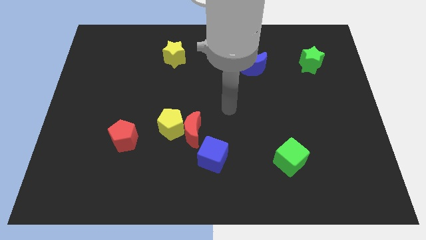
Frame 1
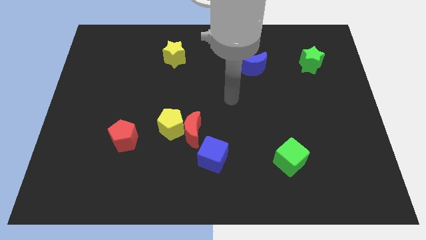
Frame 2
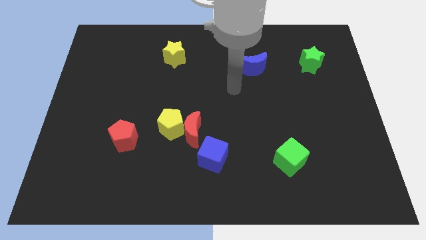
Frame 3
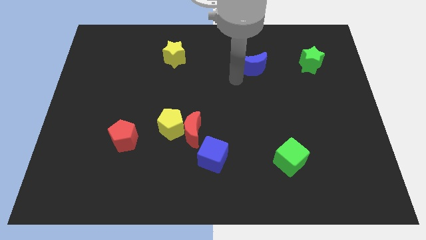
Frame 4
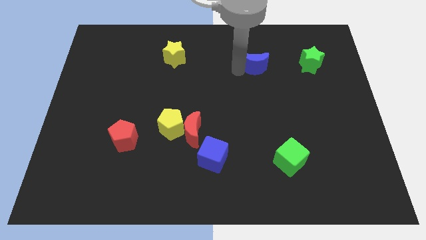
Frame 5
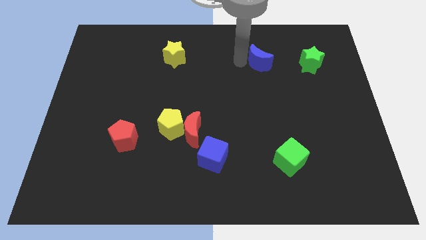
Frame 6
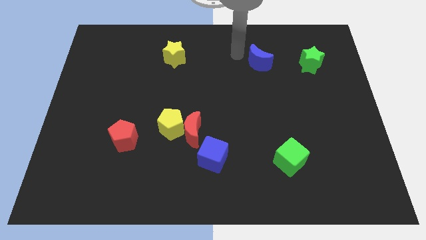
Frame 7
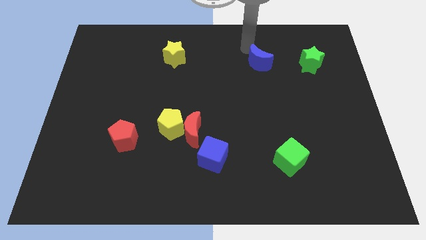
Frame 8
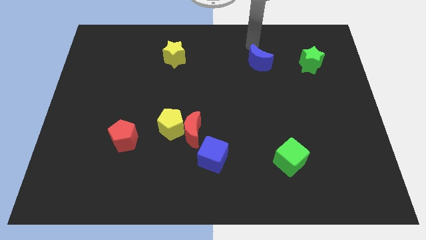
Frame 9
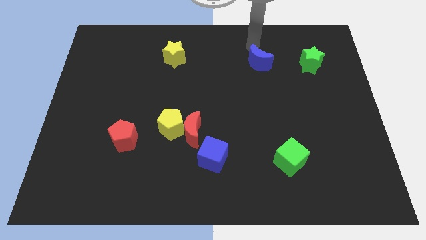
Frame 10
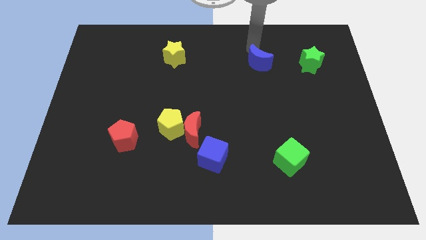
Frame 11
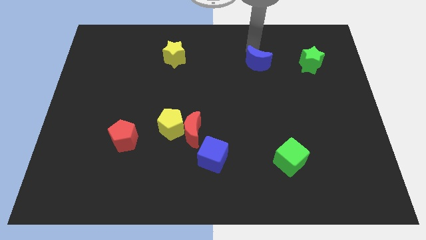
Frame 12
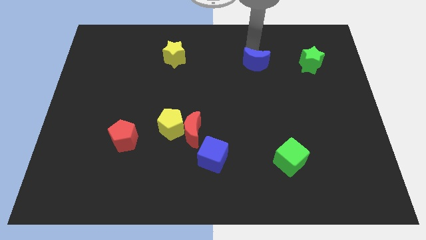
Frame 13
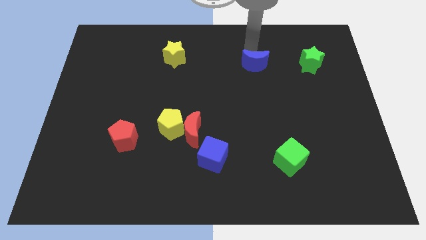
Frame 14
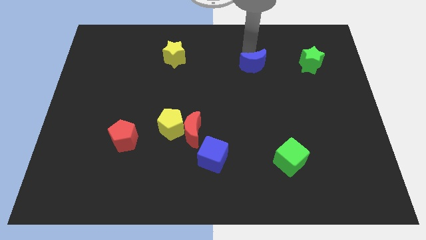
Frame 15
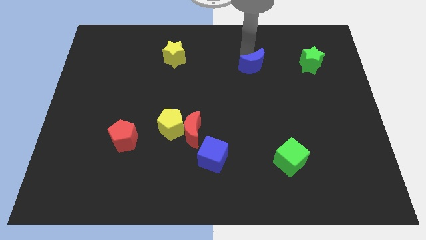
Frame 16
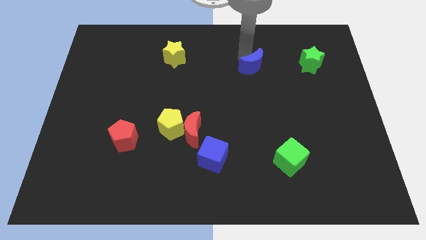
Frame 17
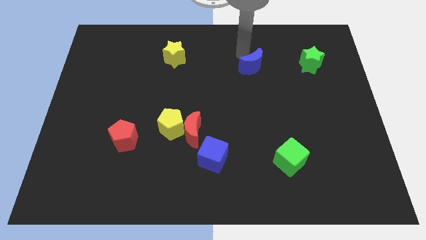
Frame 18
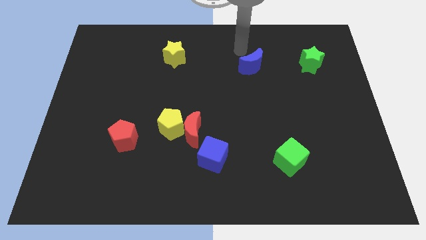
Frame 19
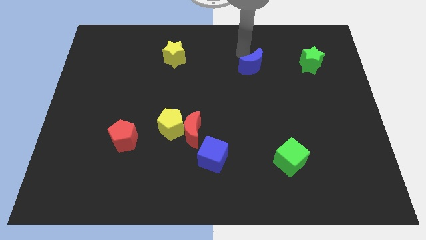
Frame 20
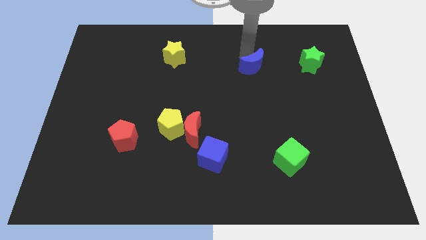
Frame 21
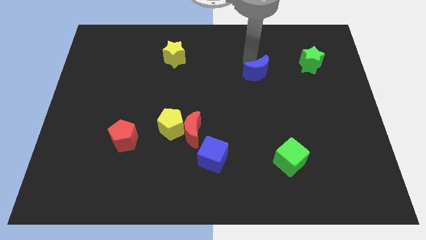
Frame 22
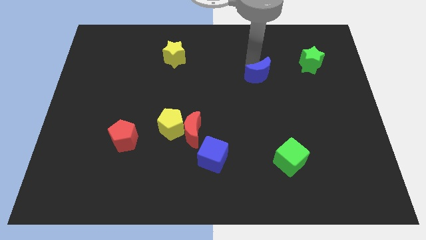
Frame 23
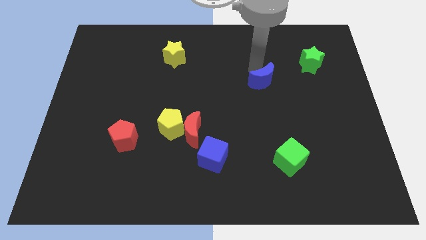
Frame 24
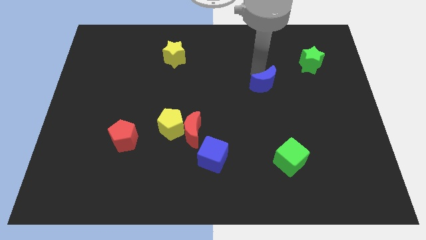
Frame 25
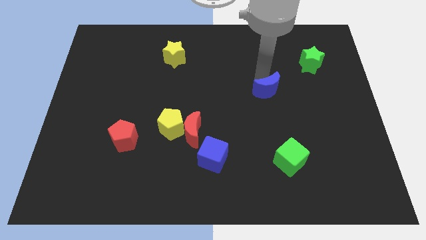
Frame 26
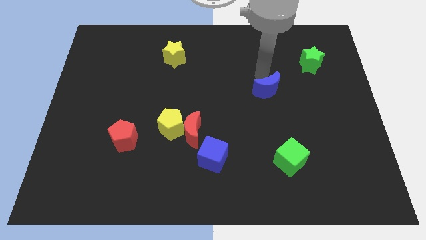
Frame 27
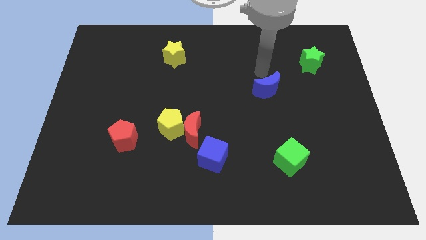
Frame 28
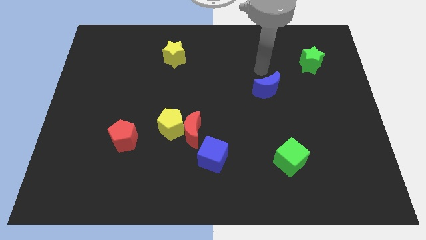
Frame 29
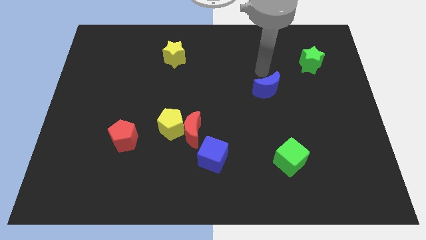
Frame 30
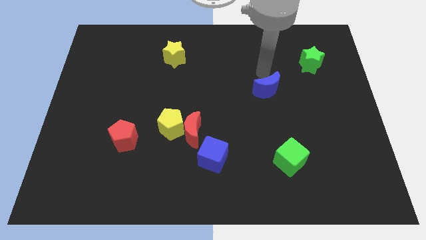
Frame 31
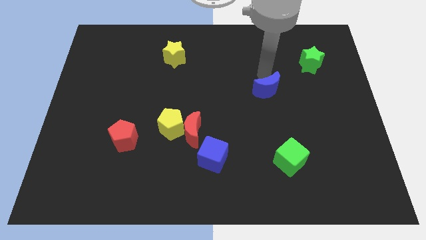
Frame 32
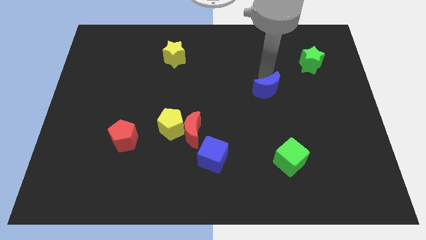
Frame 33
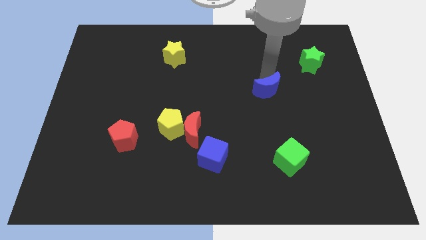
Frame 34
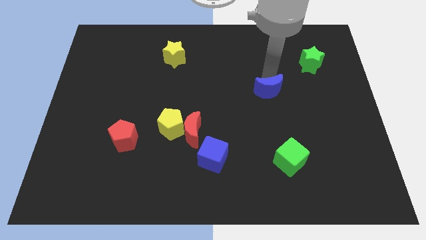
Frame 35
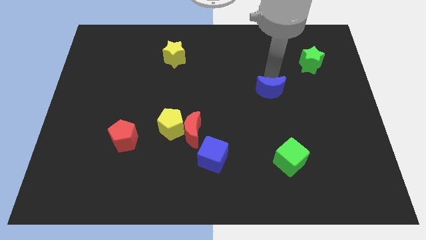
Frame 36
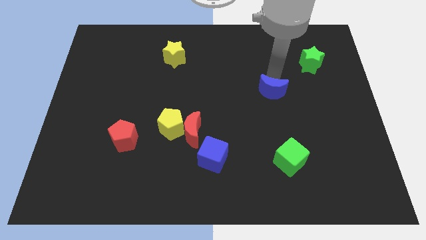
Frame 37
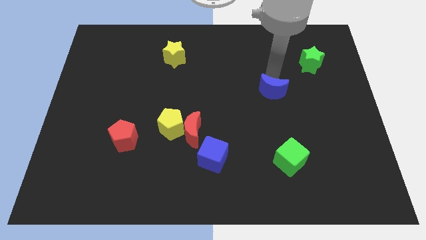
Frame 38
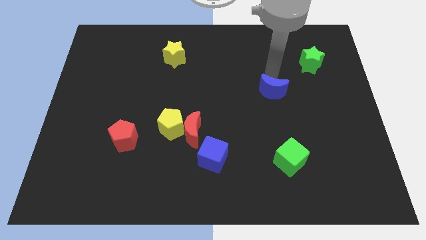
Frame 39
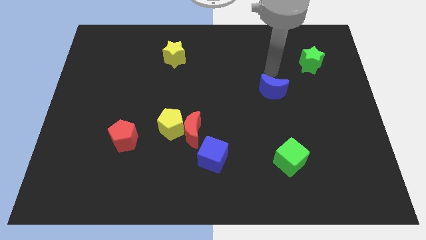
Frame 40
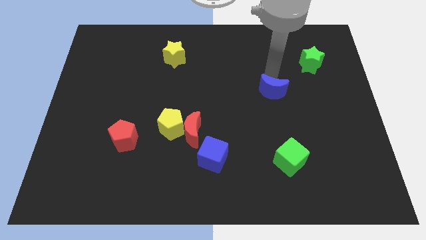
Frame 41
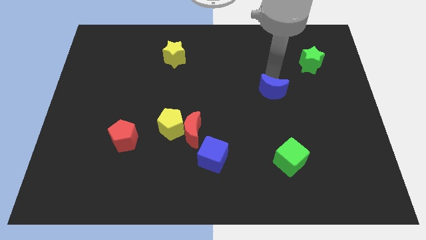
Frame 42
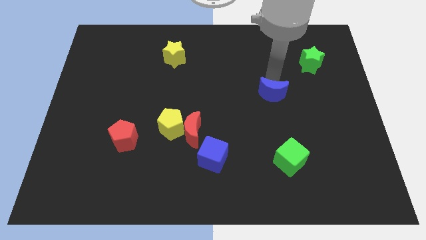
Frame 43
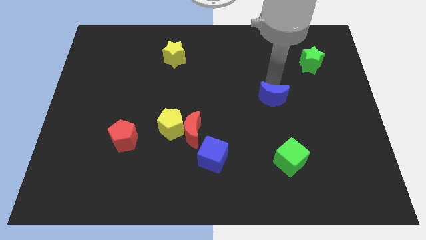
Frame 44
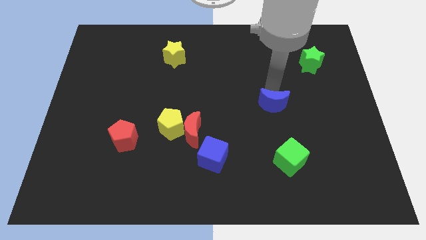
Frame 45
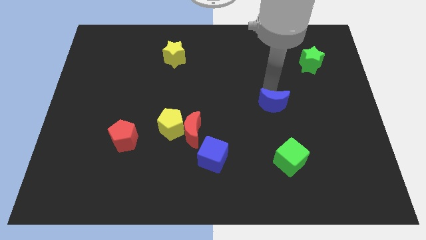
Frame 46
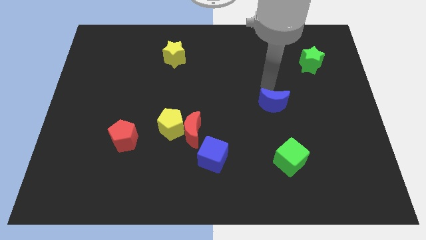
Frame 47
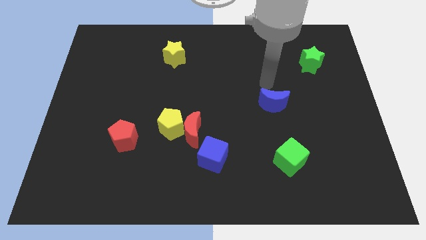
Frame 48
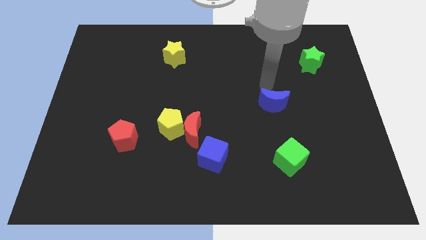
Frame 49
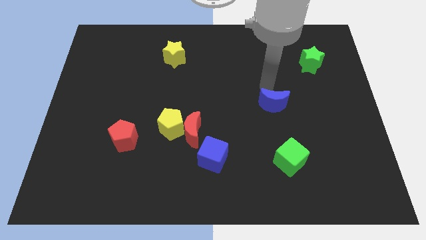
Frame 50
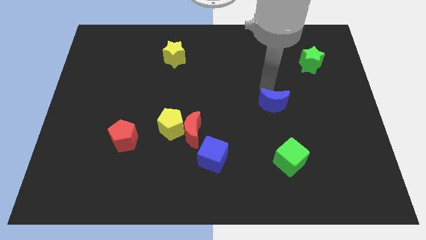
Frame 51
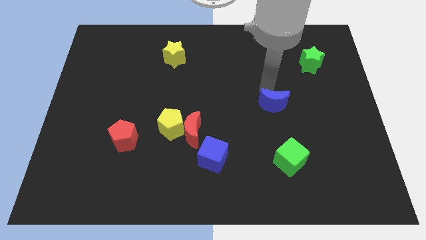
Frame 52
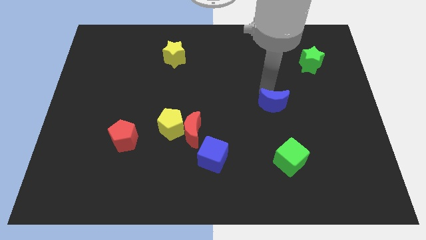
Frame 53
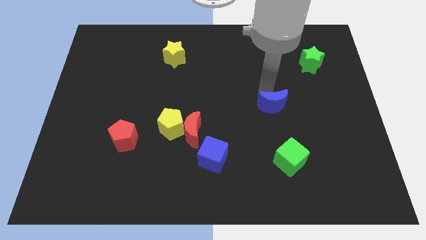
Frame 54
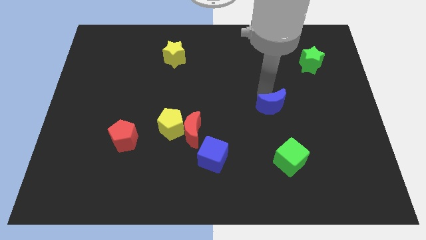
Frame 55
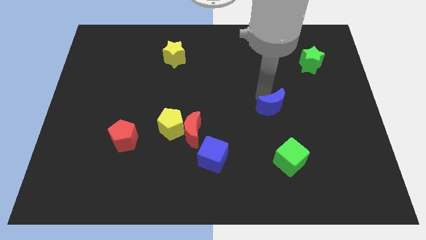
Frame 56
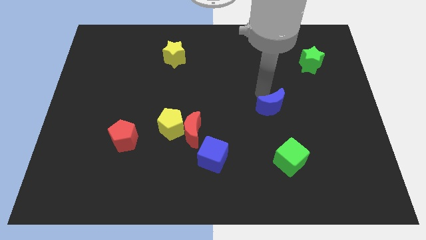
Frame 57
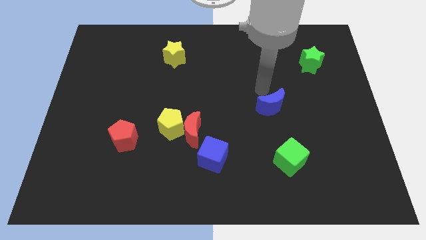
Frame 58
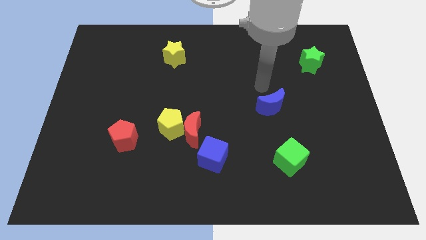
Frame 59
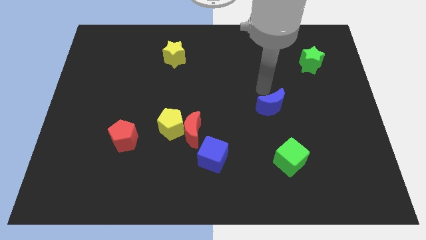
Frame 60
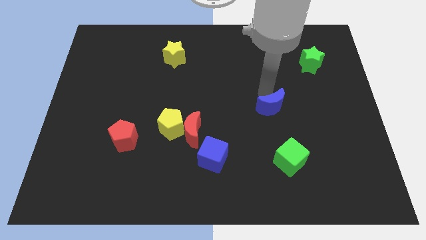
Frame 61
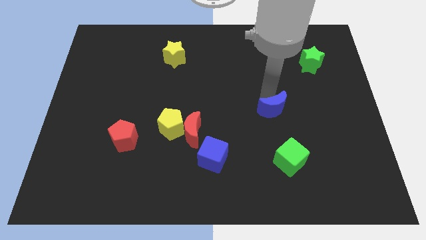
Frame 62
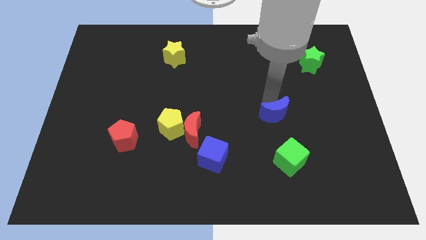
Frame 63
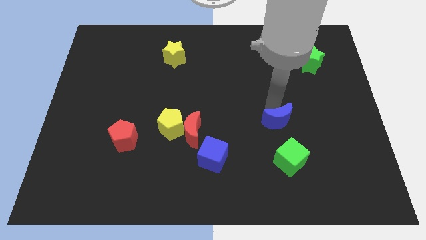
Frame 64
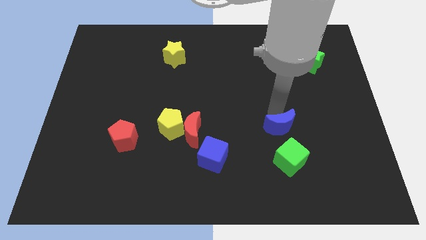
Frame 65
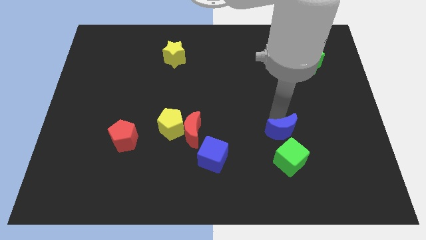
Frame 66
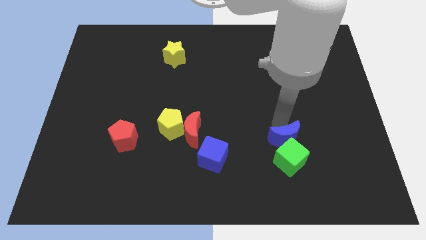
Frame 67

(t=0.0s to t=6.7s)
put the blue moon towards the green cube

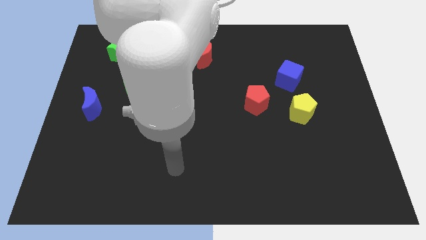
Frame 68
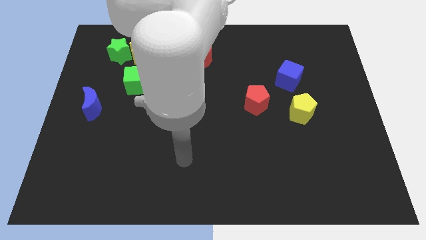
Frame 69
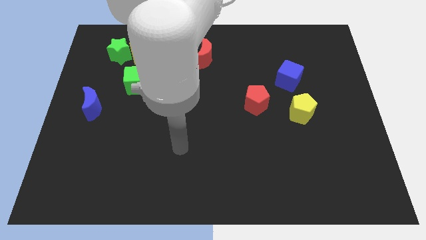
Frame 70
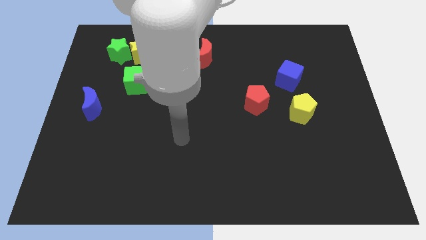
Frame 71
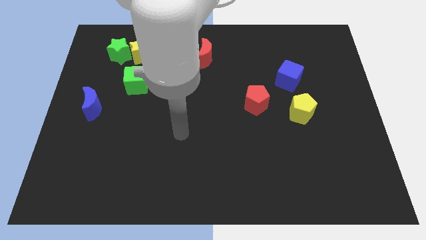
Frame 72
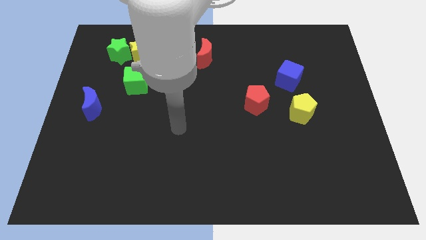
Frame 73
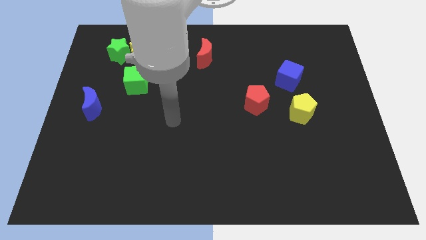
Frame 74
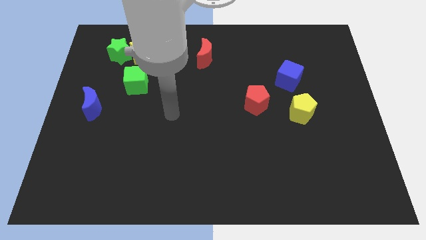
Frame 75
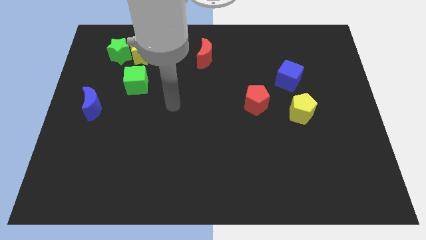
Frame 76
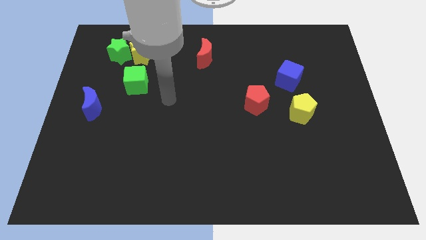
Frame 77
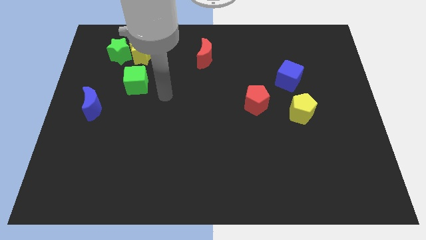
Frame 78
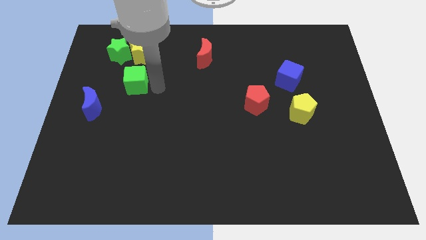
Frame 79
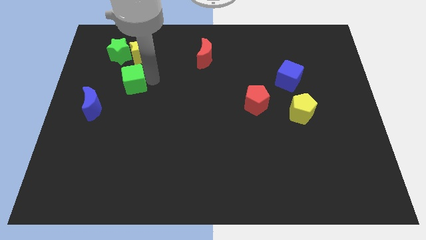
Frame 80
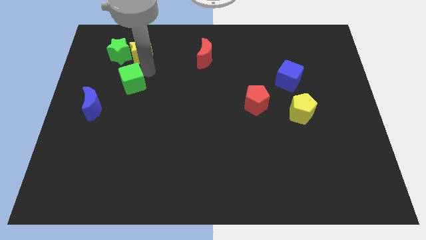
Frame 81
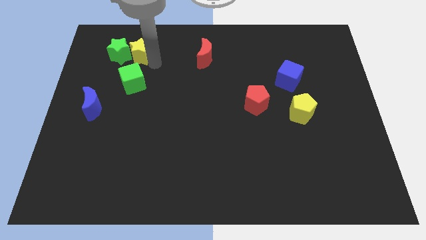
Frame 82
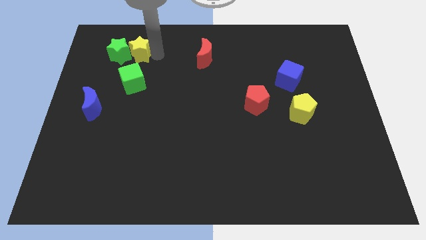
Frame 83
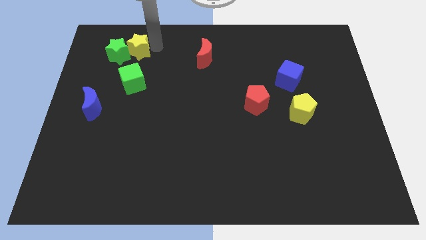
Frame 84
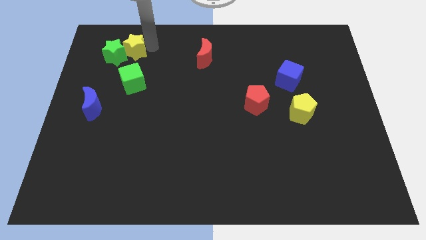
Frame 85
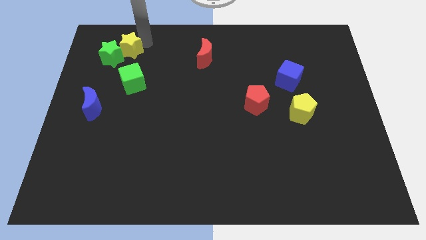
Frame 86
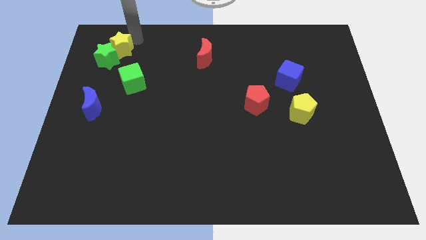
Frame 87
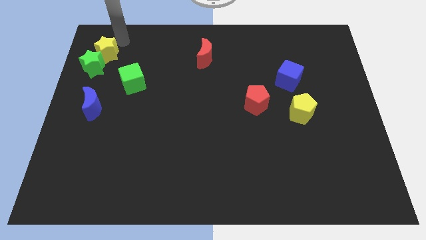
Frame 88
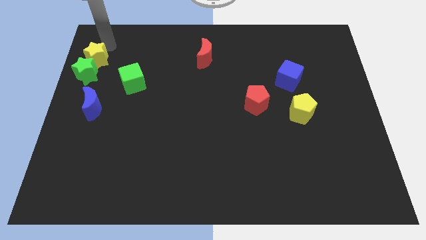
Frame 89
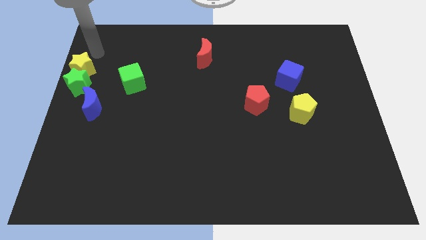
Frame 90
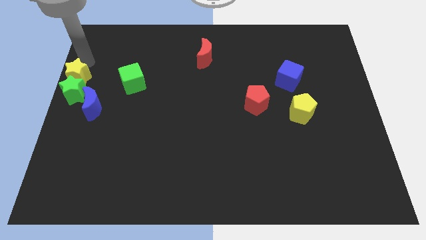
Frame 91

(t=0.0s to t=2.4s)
move the green star towards the blue moon
